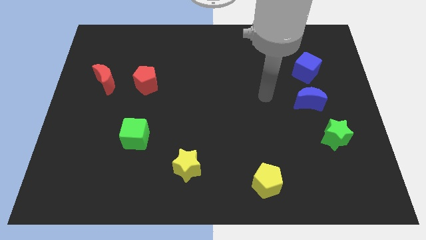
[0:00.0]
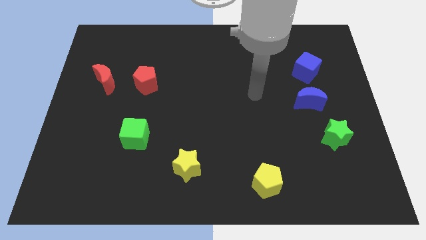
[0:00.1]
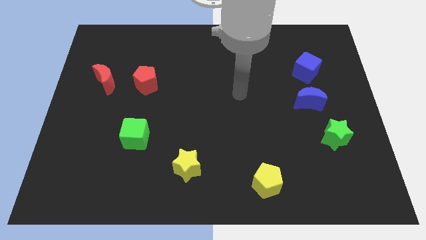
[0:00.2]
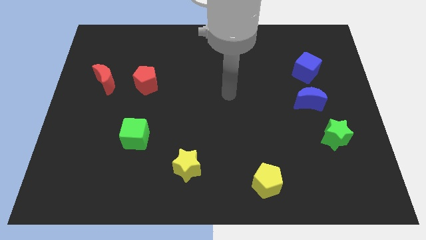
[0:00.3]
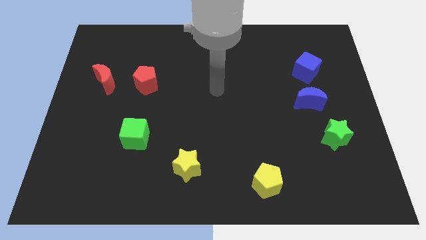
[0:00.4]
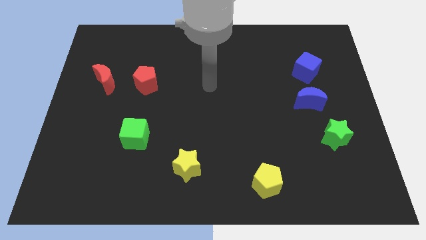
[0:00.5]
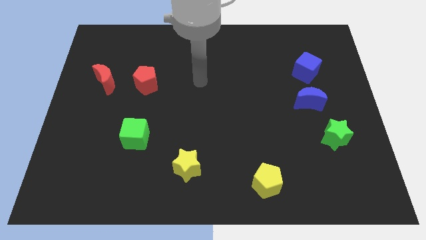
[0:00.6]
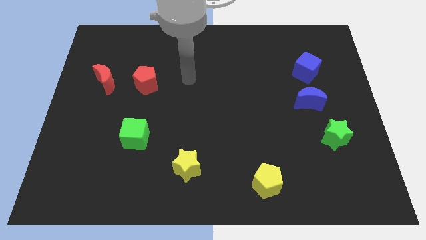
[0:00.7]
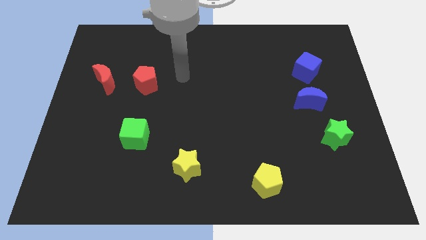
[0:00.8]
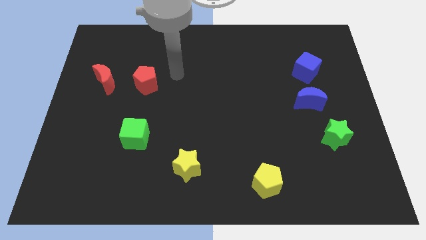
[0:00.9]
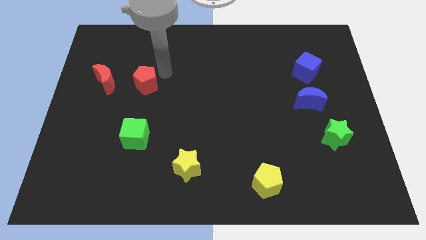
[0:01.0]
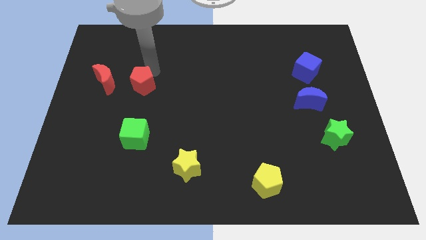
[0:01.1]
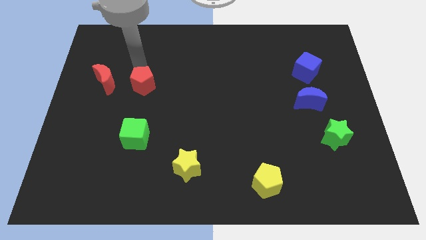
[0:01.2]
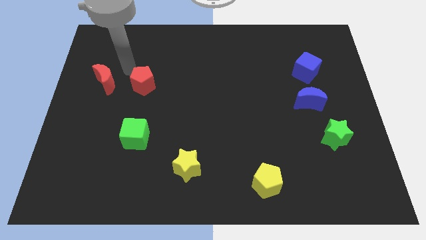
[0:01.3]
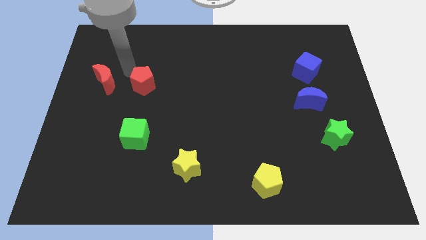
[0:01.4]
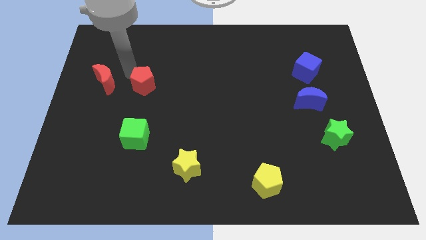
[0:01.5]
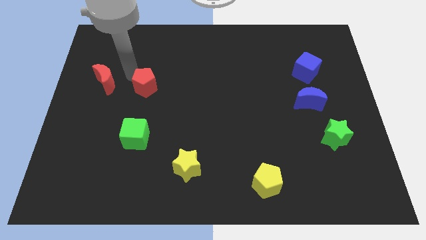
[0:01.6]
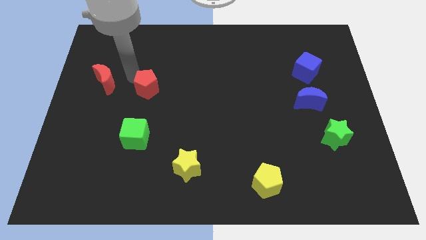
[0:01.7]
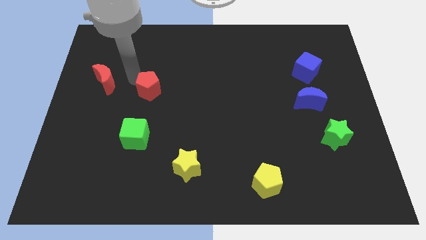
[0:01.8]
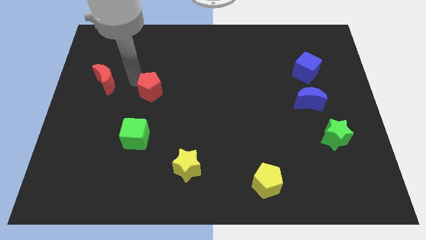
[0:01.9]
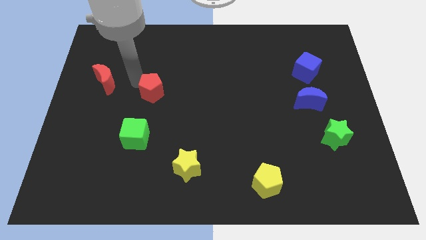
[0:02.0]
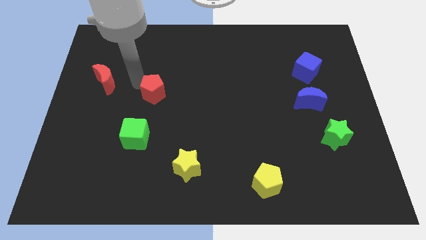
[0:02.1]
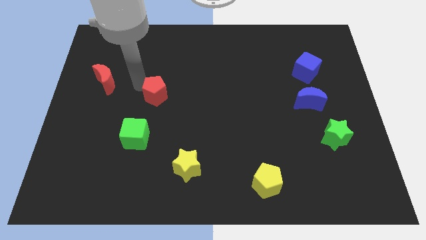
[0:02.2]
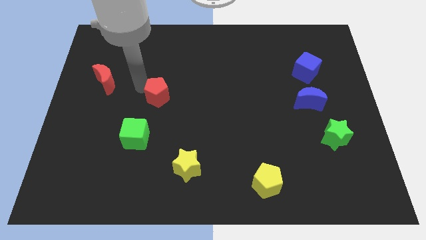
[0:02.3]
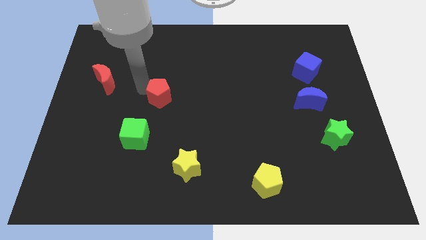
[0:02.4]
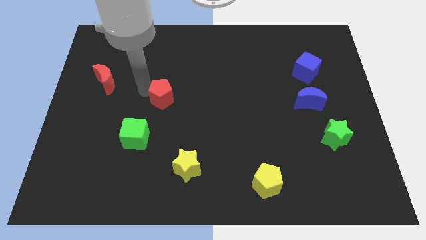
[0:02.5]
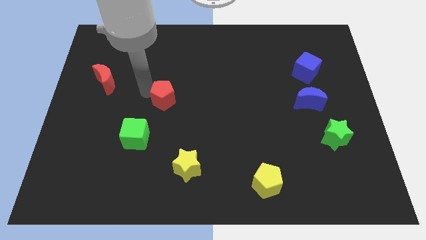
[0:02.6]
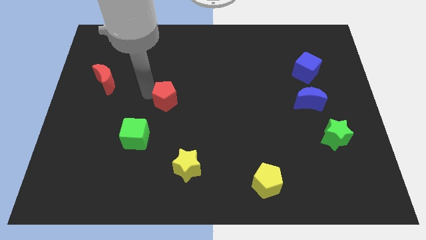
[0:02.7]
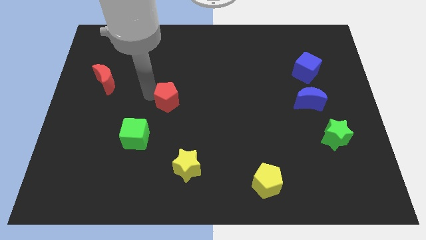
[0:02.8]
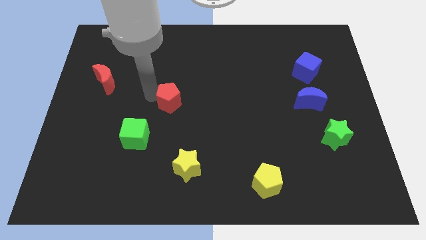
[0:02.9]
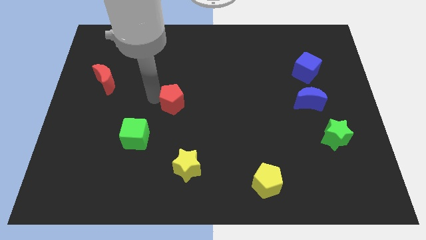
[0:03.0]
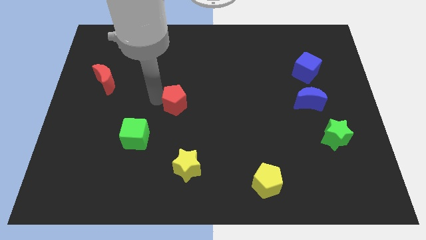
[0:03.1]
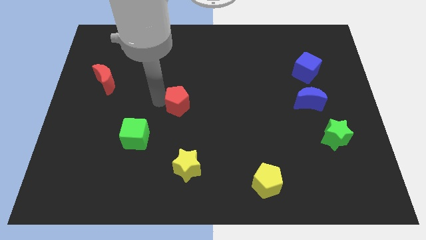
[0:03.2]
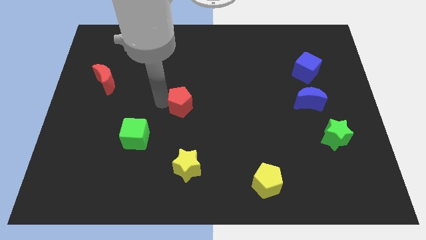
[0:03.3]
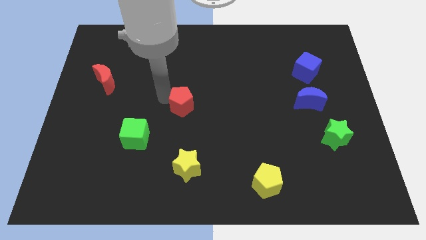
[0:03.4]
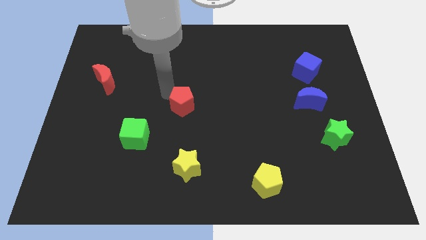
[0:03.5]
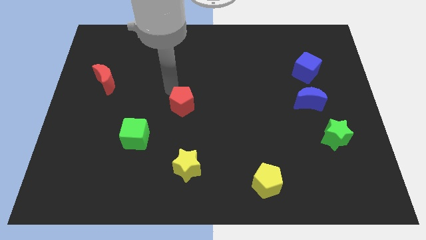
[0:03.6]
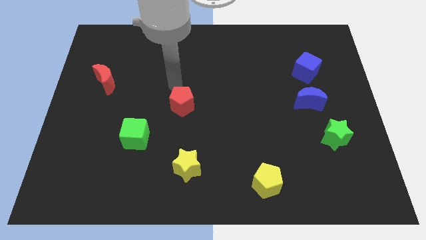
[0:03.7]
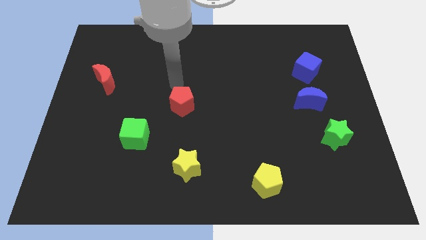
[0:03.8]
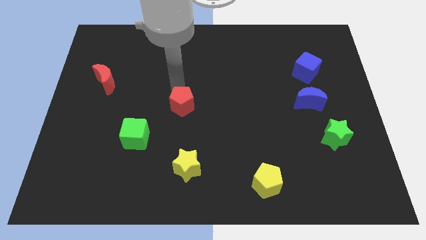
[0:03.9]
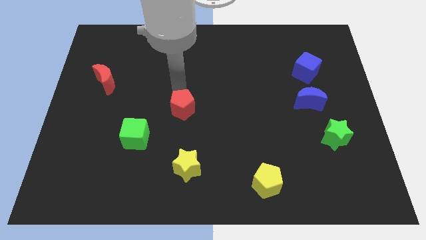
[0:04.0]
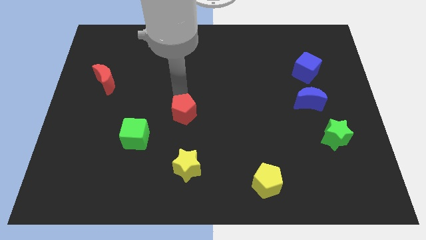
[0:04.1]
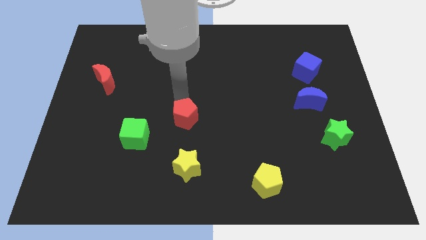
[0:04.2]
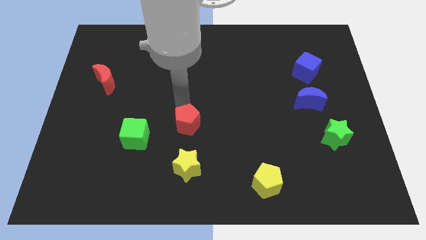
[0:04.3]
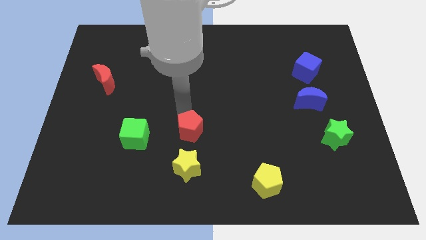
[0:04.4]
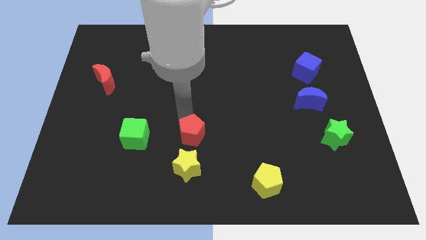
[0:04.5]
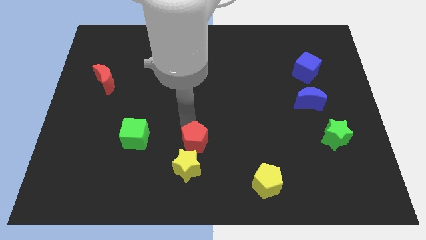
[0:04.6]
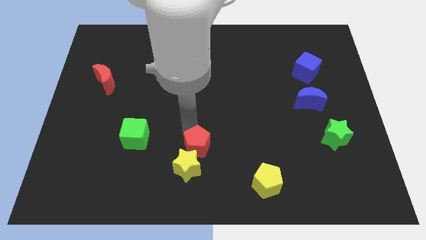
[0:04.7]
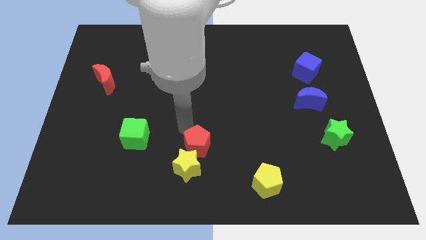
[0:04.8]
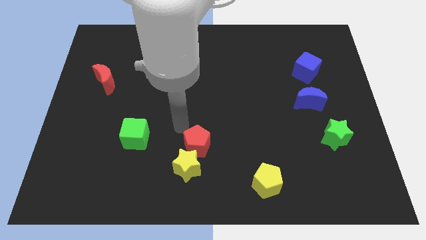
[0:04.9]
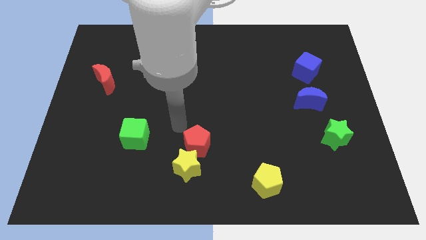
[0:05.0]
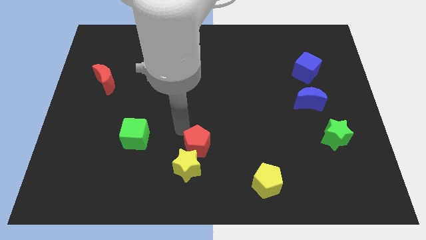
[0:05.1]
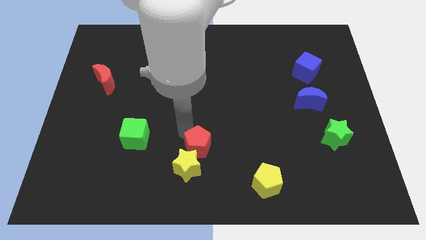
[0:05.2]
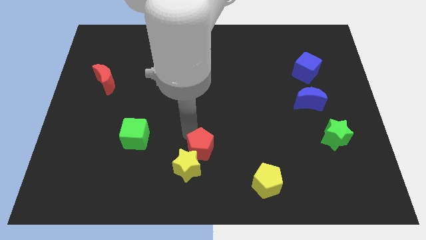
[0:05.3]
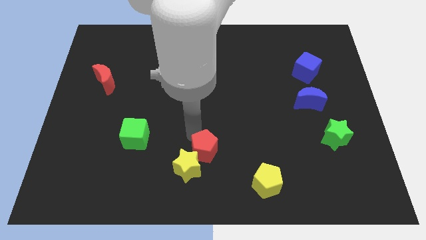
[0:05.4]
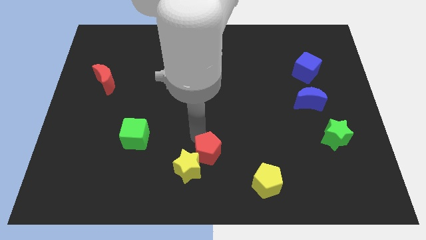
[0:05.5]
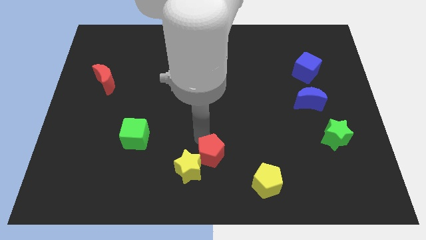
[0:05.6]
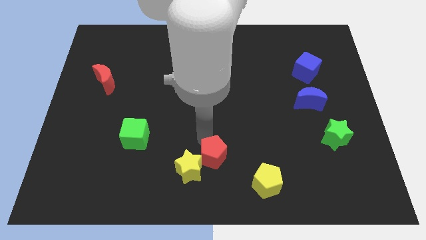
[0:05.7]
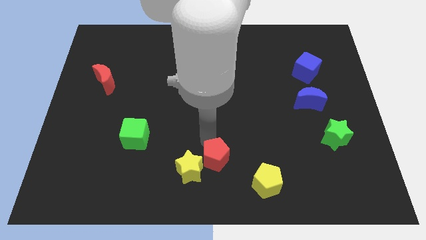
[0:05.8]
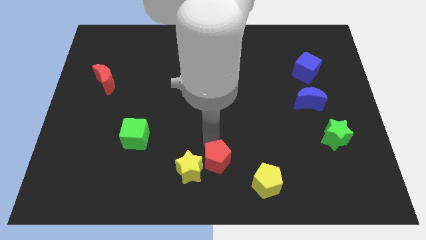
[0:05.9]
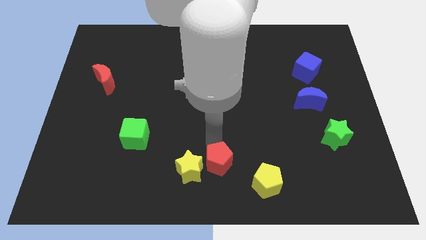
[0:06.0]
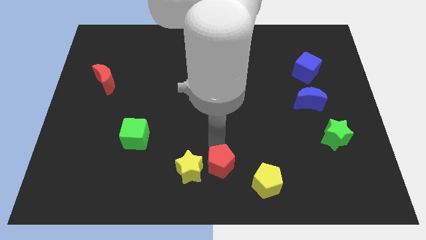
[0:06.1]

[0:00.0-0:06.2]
move the red pentagon to the left side of the yellow pentagon

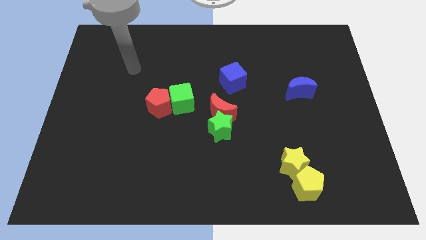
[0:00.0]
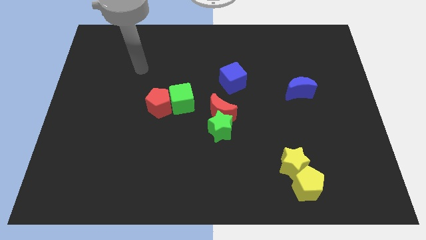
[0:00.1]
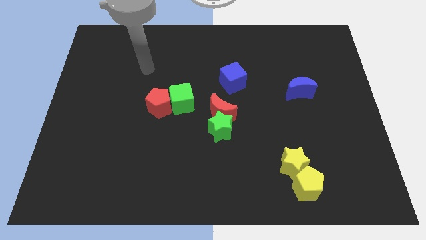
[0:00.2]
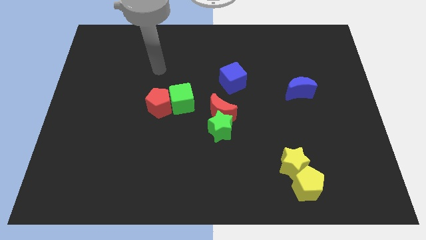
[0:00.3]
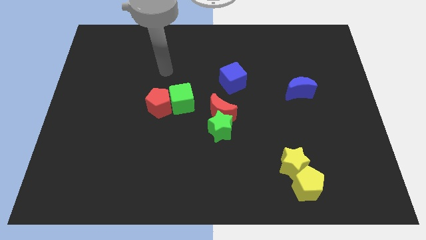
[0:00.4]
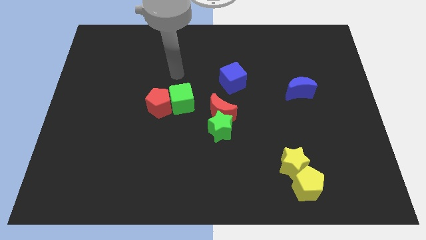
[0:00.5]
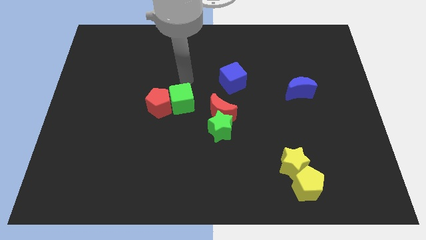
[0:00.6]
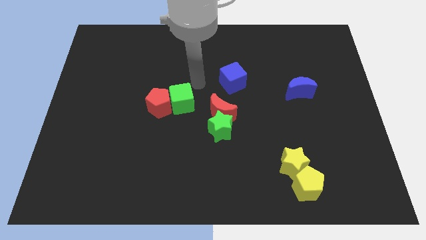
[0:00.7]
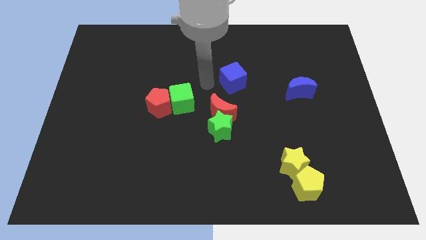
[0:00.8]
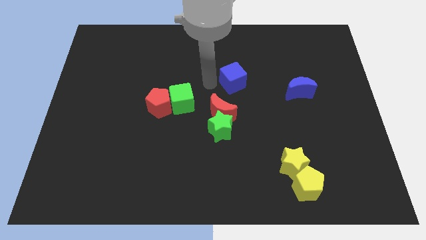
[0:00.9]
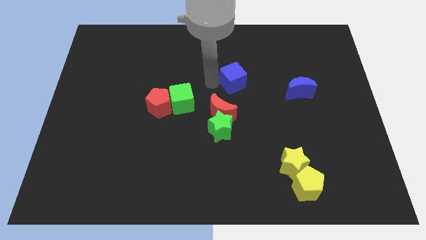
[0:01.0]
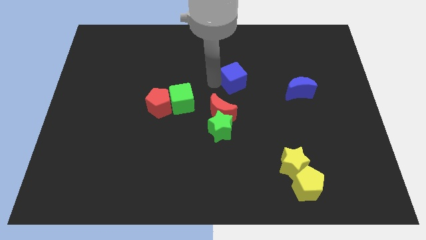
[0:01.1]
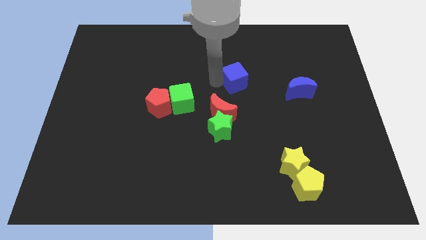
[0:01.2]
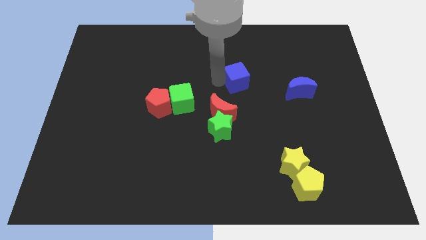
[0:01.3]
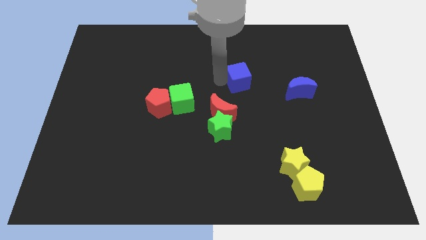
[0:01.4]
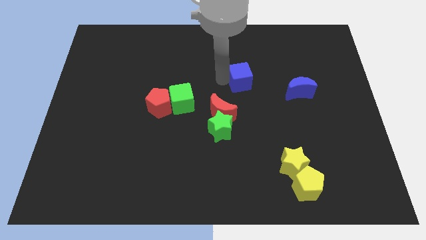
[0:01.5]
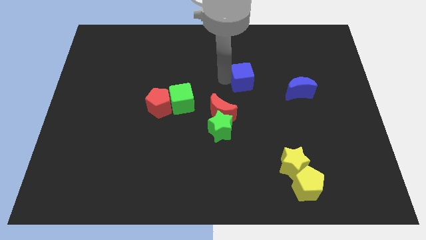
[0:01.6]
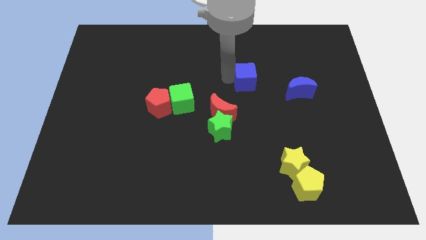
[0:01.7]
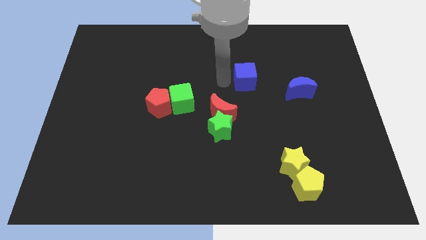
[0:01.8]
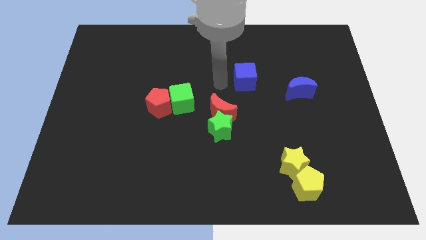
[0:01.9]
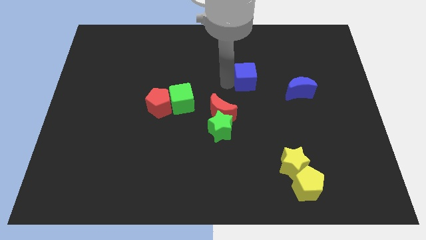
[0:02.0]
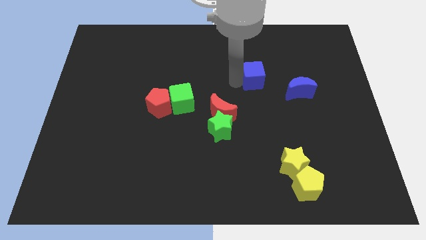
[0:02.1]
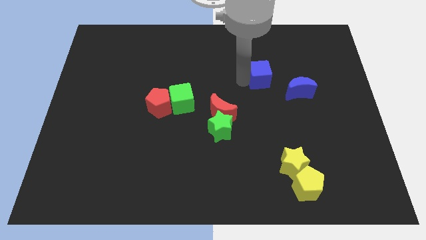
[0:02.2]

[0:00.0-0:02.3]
push the blue cube to the top left of the blue moon
